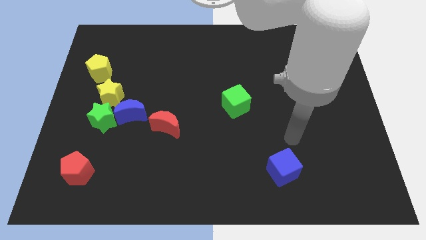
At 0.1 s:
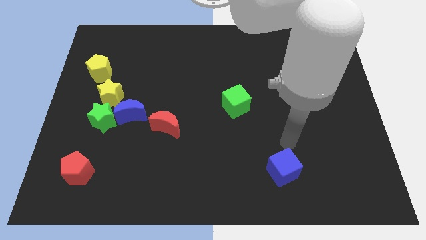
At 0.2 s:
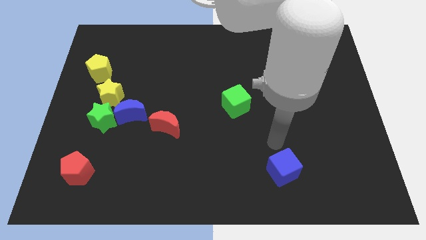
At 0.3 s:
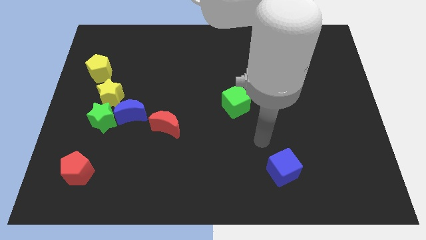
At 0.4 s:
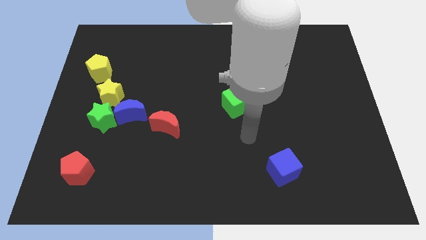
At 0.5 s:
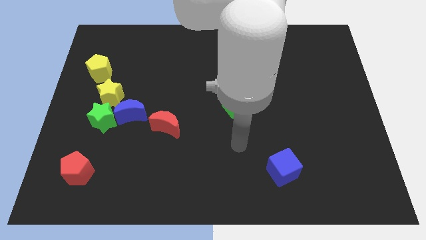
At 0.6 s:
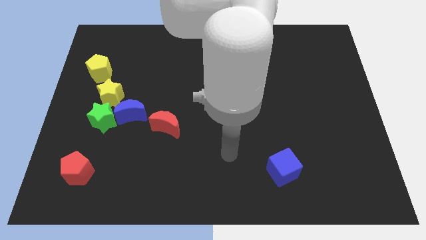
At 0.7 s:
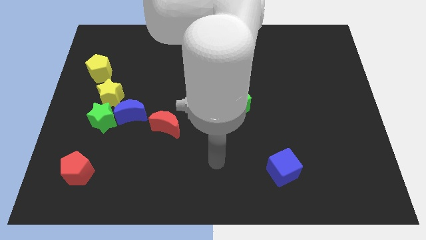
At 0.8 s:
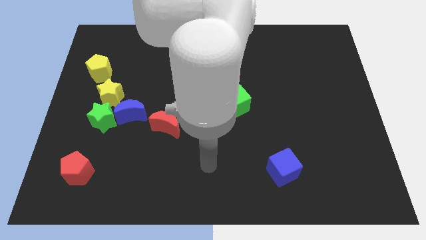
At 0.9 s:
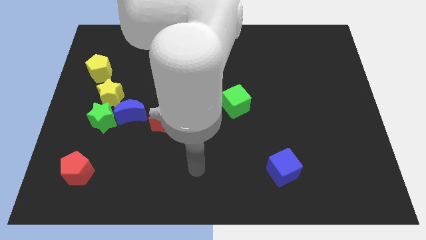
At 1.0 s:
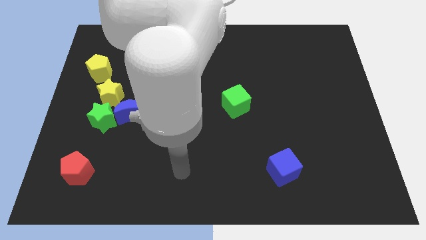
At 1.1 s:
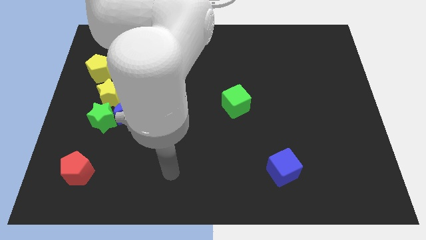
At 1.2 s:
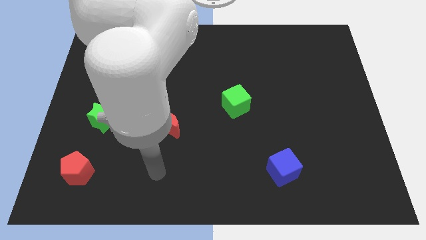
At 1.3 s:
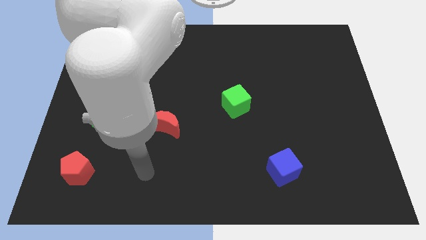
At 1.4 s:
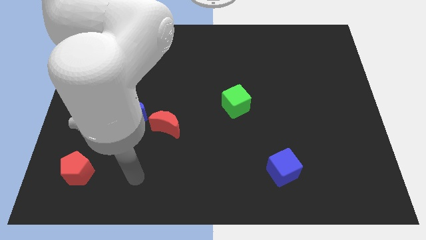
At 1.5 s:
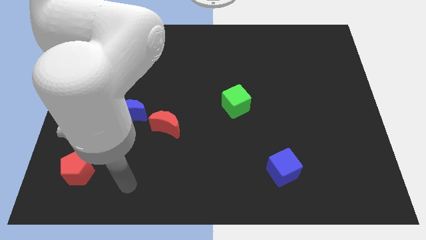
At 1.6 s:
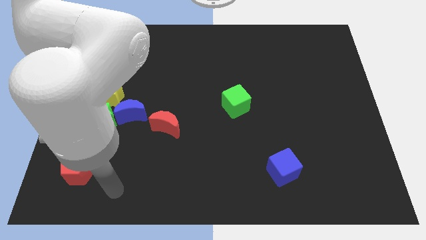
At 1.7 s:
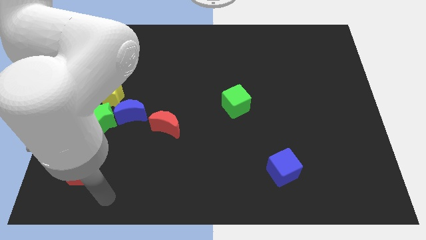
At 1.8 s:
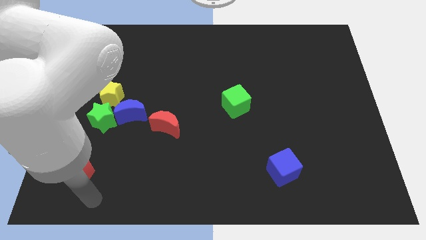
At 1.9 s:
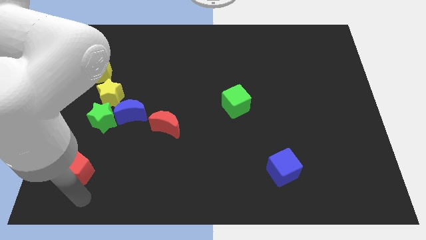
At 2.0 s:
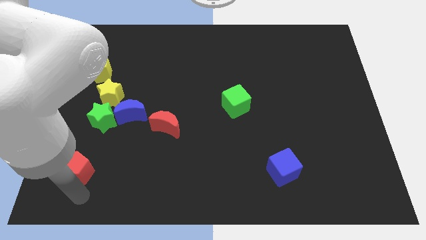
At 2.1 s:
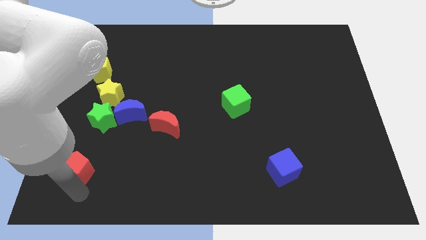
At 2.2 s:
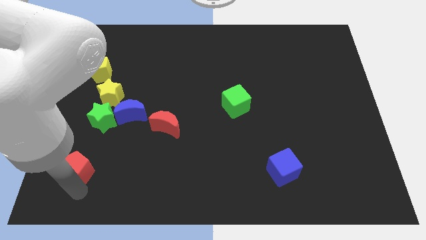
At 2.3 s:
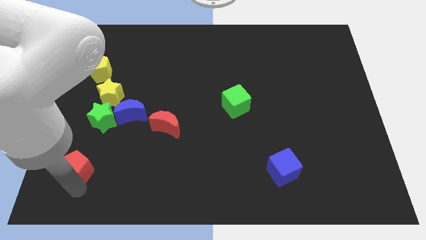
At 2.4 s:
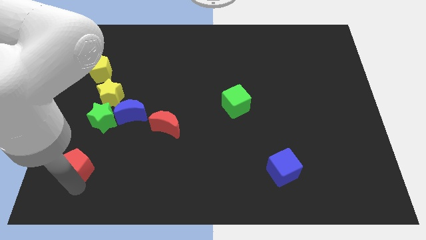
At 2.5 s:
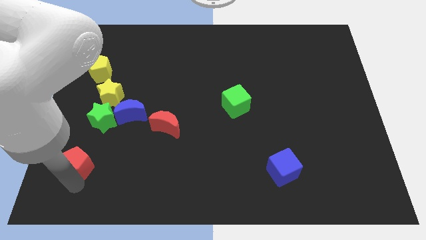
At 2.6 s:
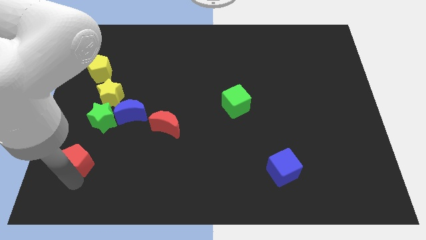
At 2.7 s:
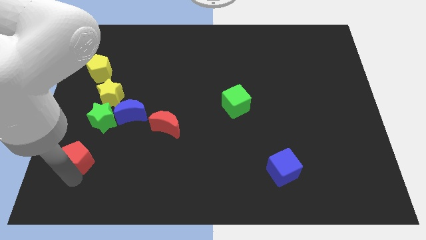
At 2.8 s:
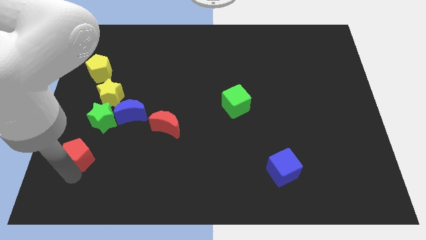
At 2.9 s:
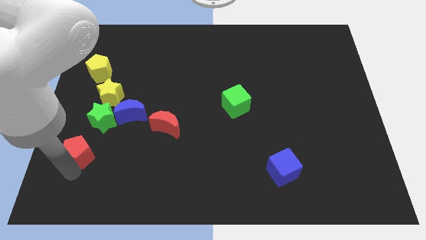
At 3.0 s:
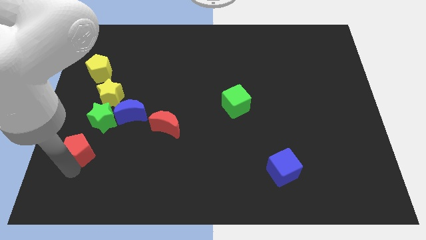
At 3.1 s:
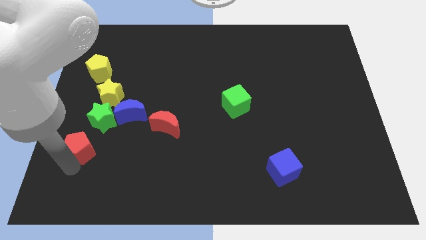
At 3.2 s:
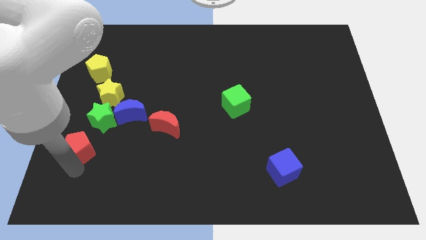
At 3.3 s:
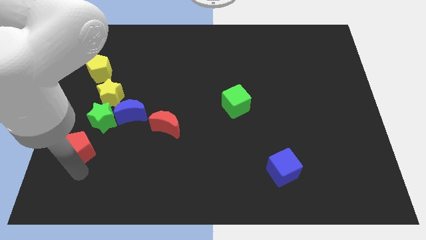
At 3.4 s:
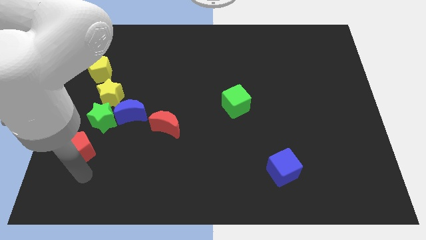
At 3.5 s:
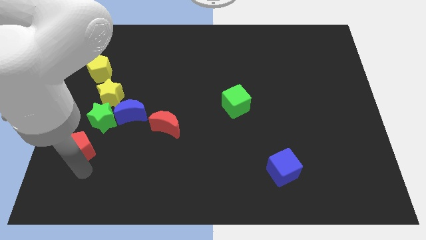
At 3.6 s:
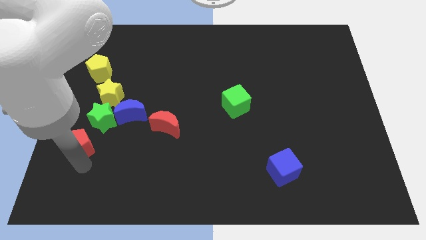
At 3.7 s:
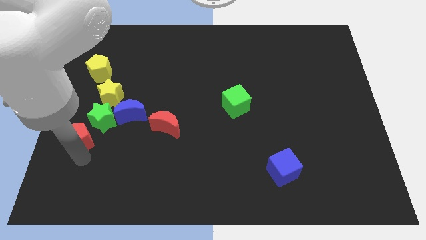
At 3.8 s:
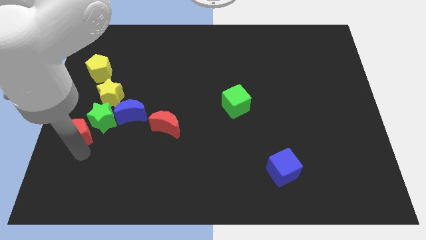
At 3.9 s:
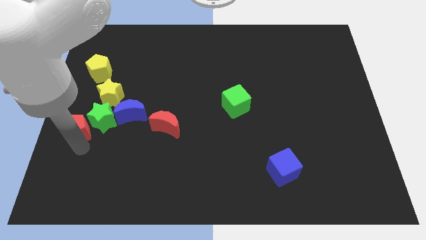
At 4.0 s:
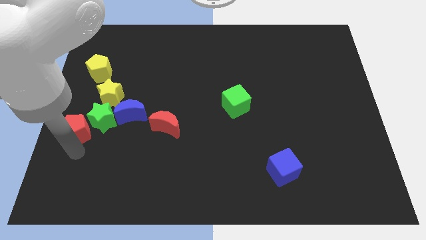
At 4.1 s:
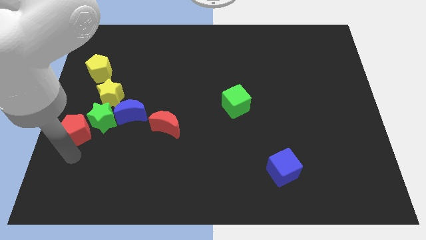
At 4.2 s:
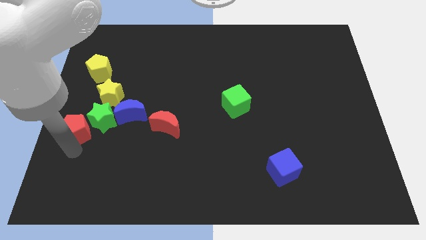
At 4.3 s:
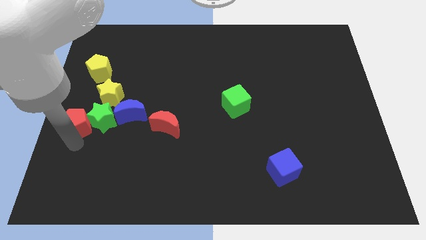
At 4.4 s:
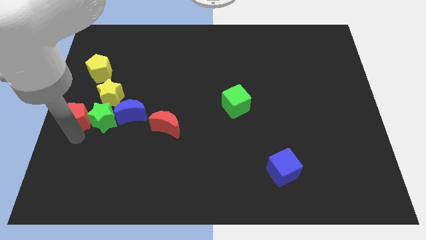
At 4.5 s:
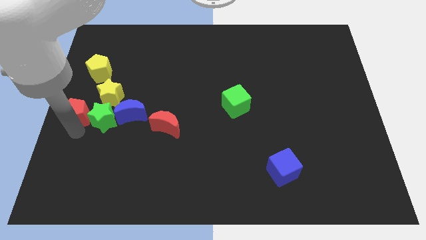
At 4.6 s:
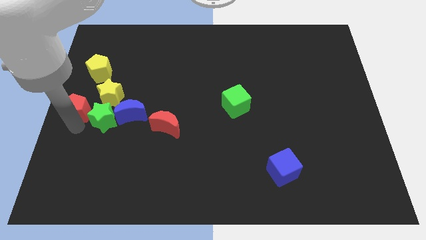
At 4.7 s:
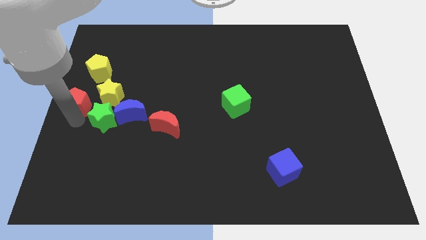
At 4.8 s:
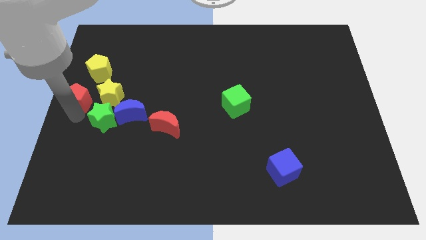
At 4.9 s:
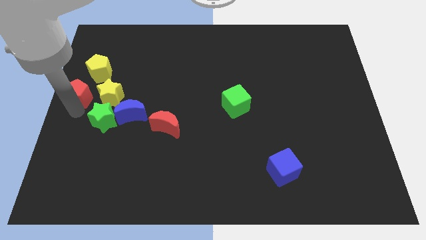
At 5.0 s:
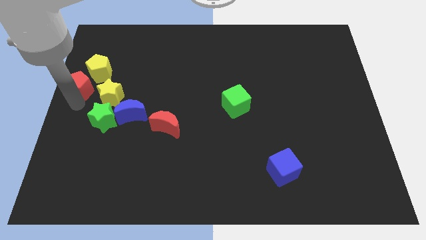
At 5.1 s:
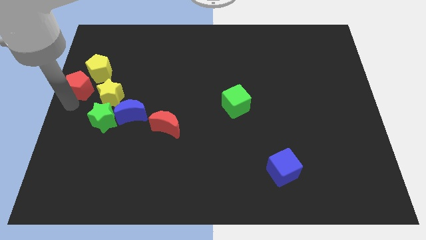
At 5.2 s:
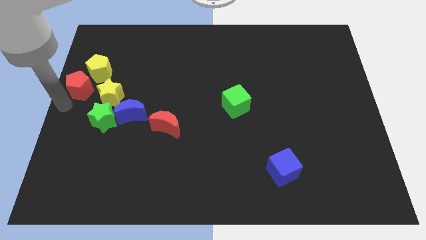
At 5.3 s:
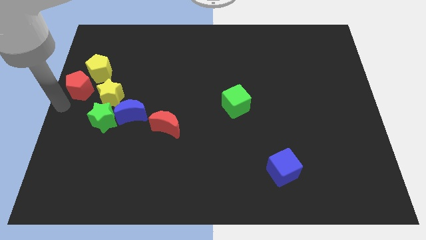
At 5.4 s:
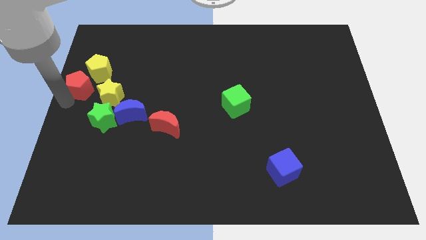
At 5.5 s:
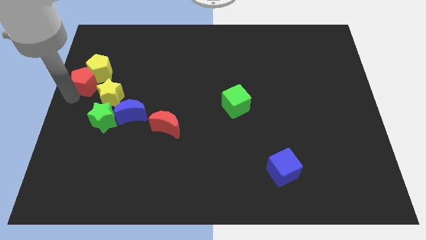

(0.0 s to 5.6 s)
put the red pentagon towards the yellow pentagon
